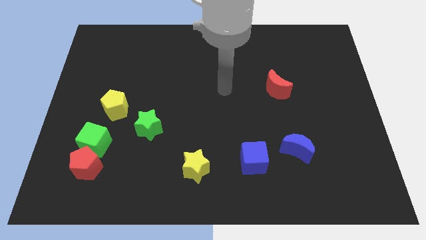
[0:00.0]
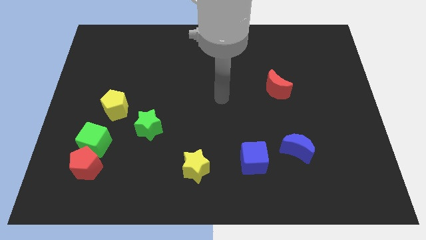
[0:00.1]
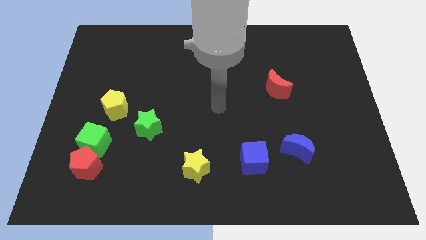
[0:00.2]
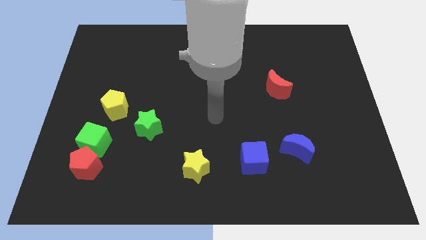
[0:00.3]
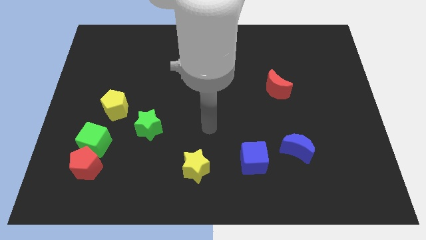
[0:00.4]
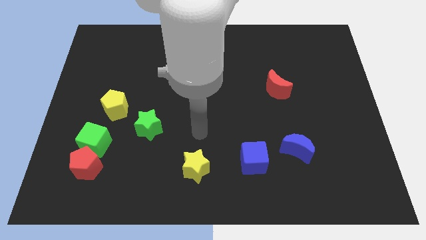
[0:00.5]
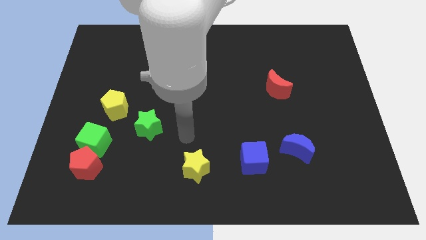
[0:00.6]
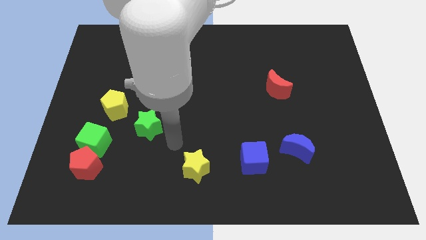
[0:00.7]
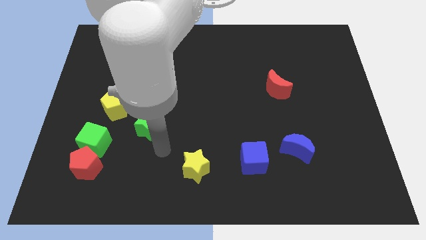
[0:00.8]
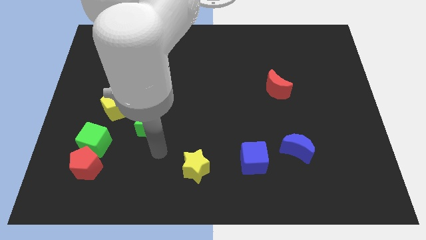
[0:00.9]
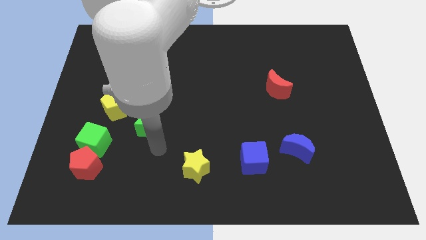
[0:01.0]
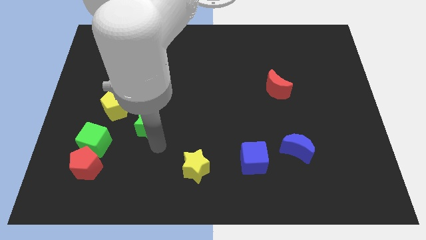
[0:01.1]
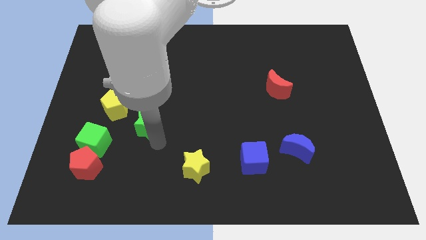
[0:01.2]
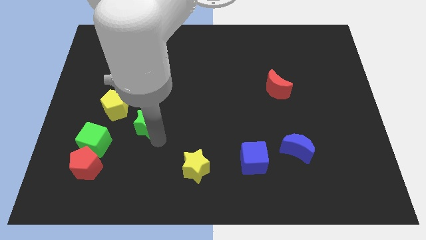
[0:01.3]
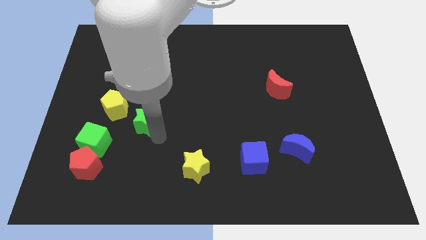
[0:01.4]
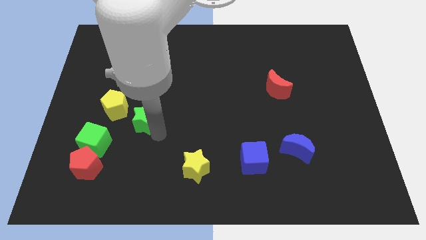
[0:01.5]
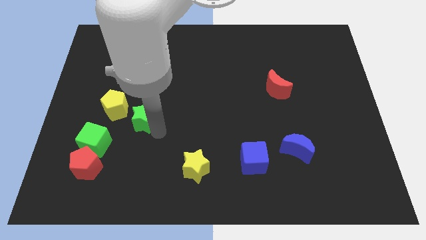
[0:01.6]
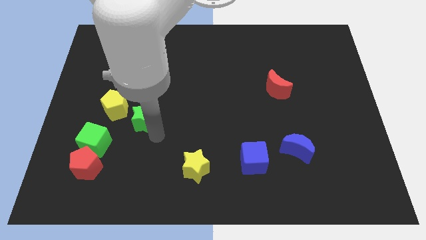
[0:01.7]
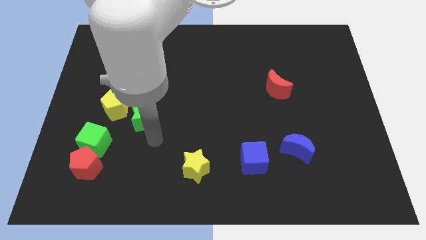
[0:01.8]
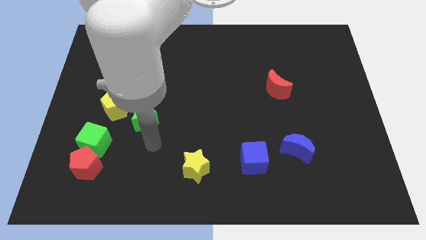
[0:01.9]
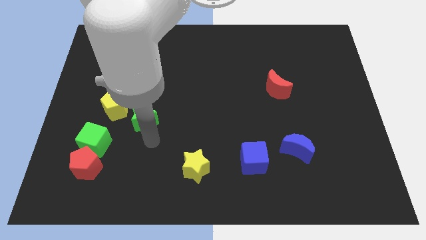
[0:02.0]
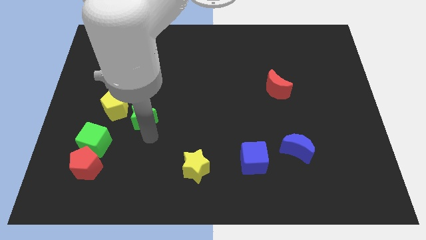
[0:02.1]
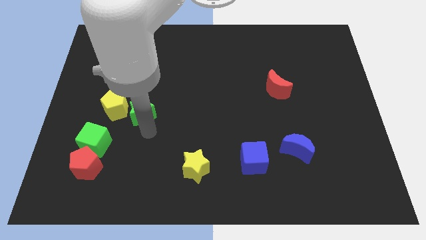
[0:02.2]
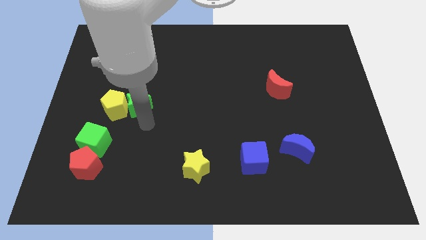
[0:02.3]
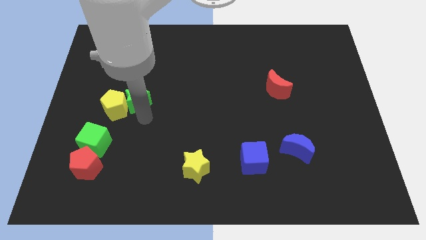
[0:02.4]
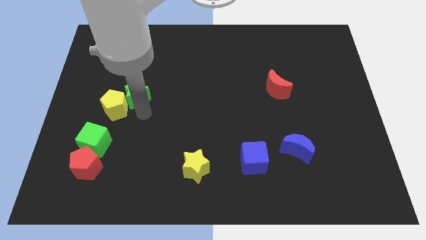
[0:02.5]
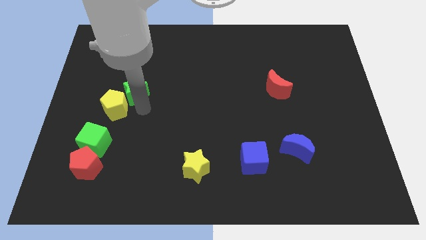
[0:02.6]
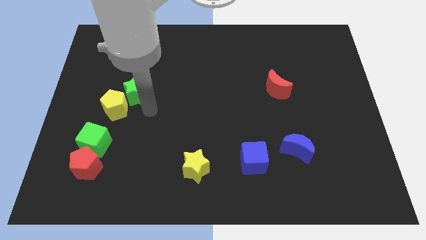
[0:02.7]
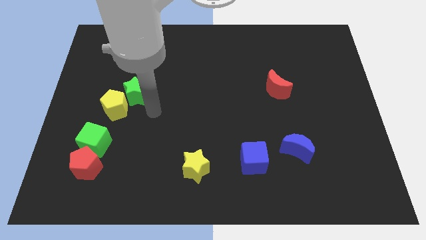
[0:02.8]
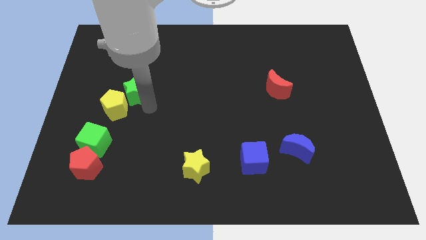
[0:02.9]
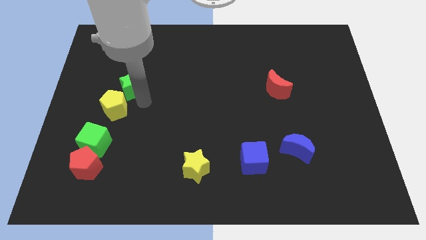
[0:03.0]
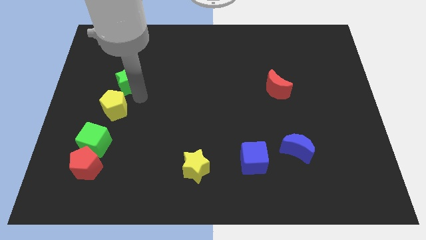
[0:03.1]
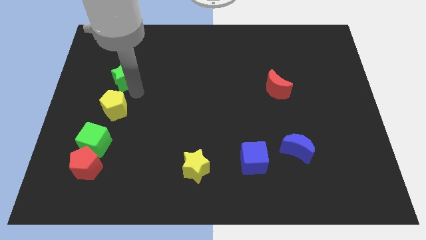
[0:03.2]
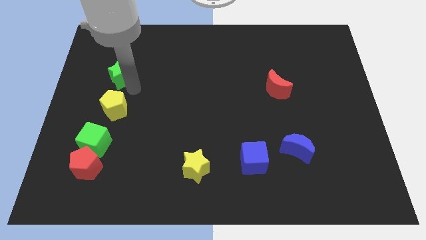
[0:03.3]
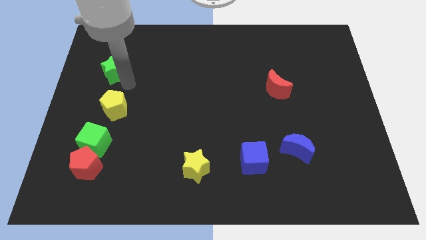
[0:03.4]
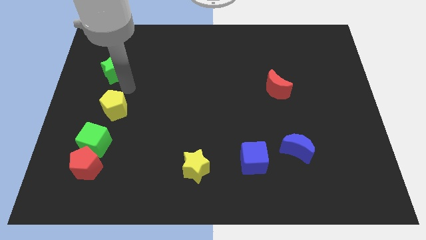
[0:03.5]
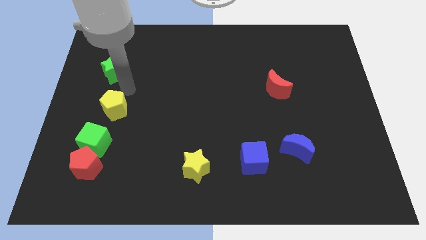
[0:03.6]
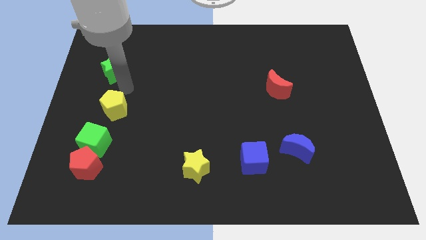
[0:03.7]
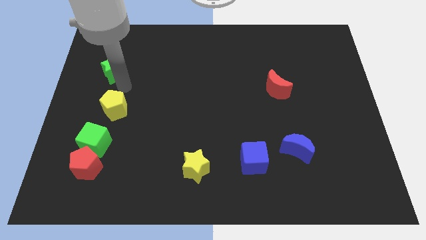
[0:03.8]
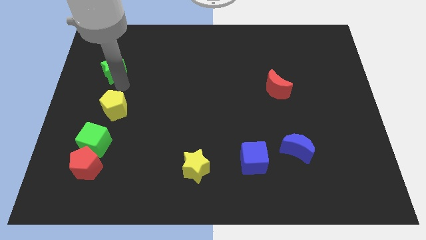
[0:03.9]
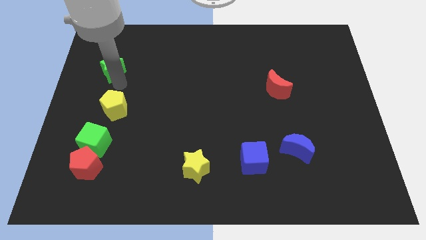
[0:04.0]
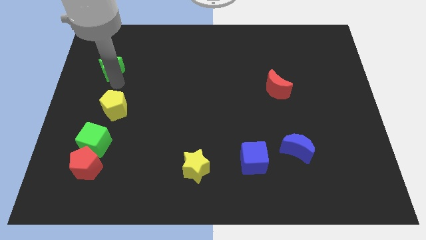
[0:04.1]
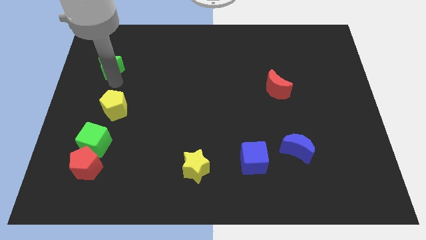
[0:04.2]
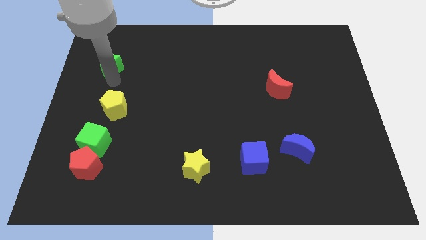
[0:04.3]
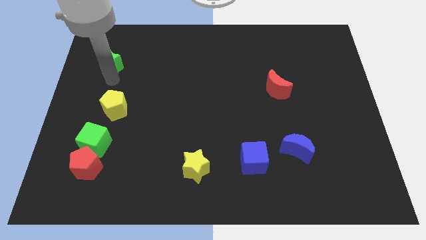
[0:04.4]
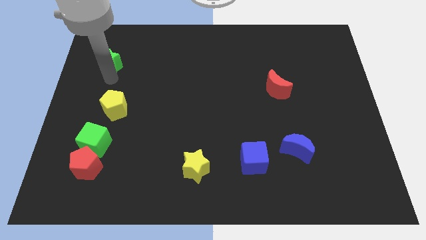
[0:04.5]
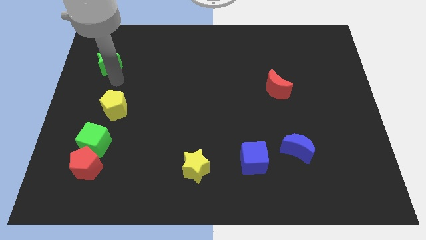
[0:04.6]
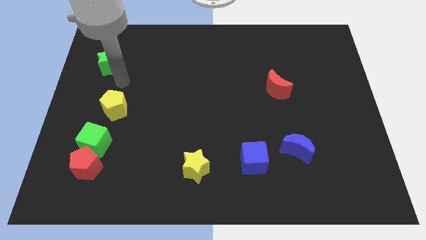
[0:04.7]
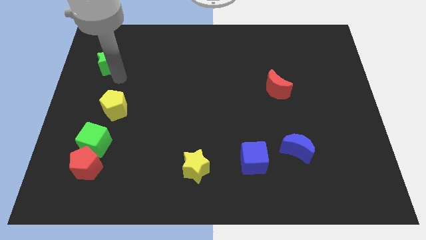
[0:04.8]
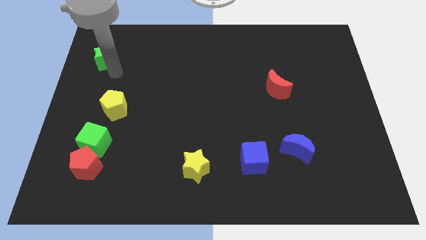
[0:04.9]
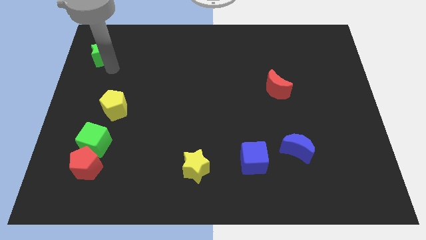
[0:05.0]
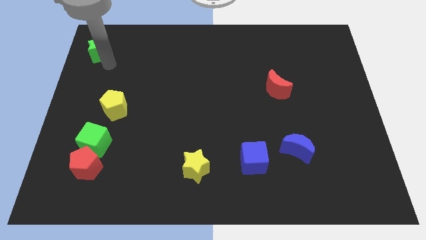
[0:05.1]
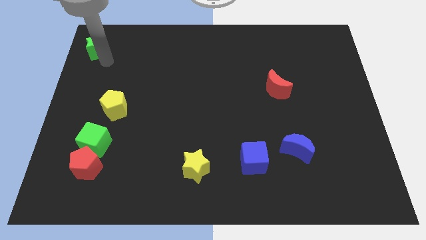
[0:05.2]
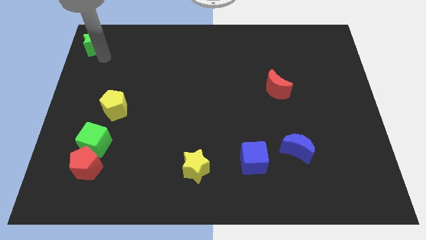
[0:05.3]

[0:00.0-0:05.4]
slide the green star to the top left of the board
